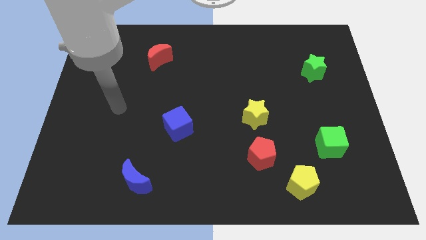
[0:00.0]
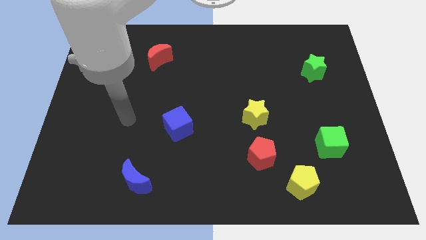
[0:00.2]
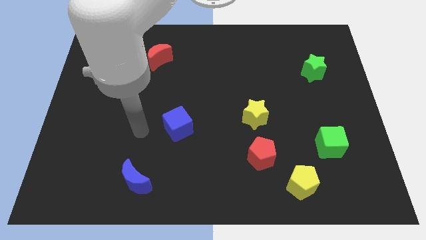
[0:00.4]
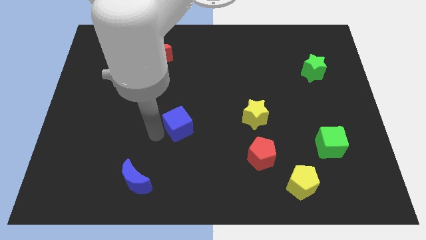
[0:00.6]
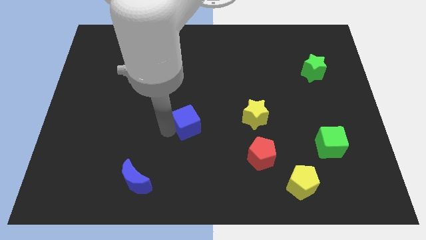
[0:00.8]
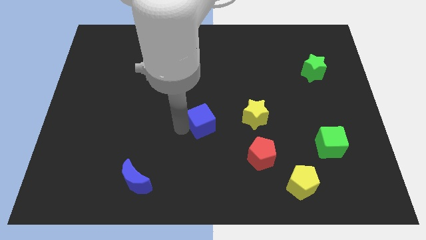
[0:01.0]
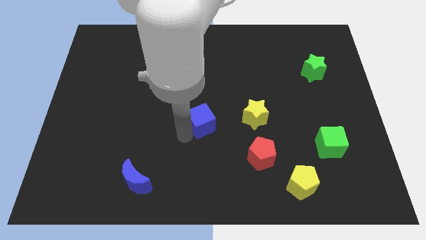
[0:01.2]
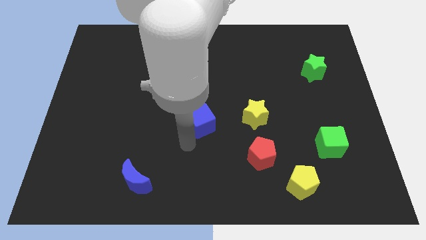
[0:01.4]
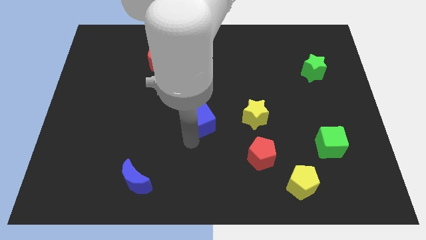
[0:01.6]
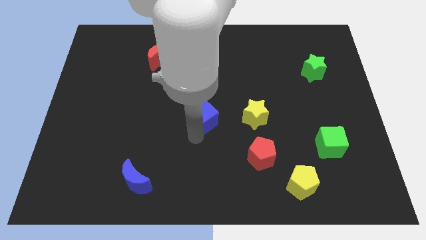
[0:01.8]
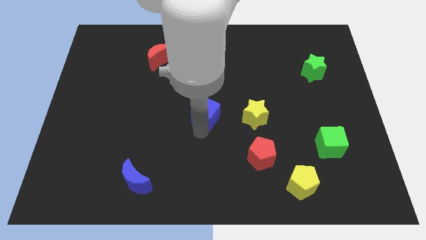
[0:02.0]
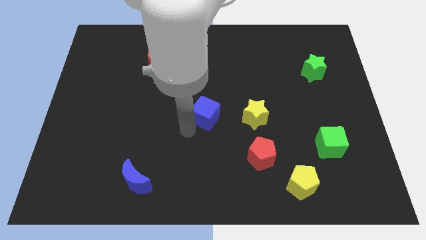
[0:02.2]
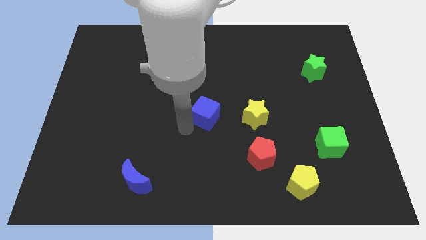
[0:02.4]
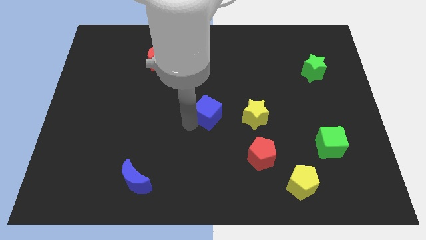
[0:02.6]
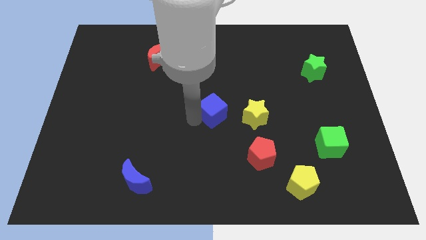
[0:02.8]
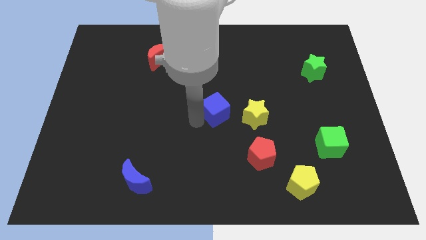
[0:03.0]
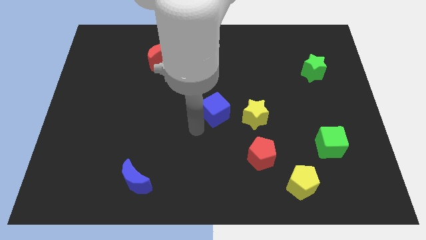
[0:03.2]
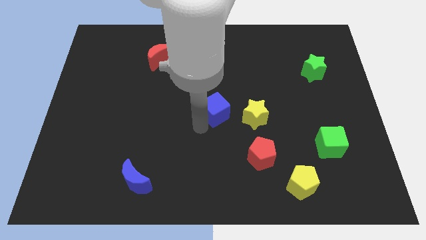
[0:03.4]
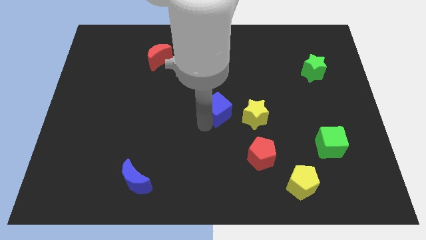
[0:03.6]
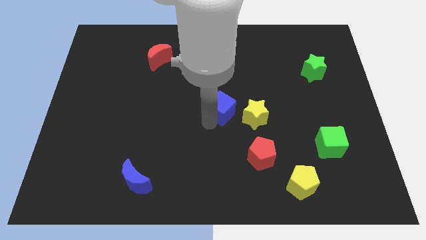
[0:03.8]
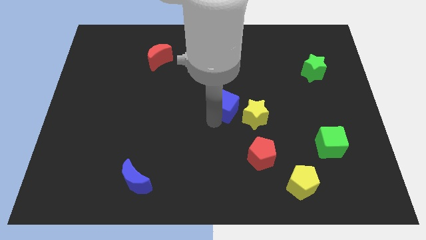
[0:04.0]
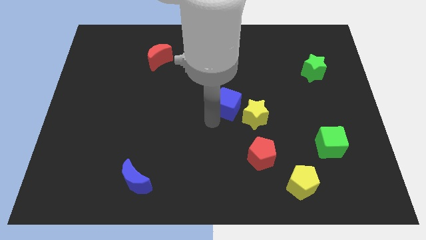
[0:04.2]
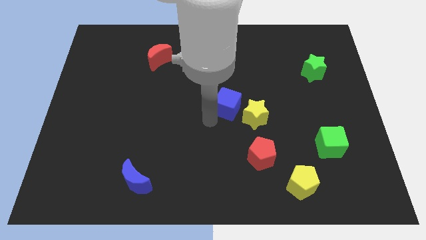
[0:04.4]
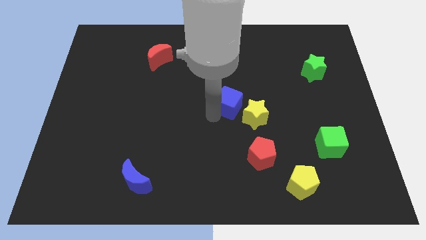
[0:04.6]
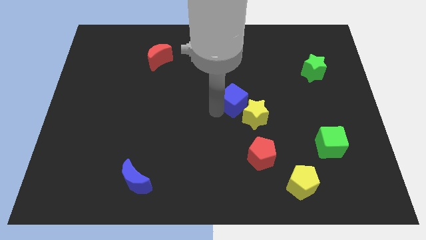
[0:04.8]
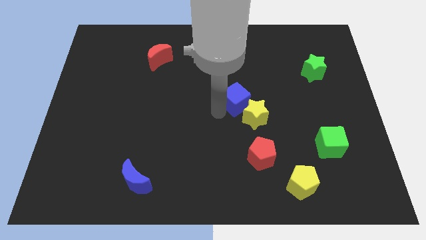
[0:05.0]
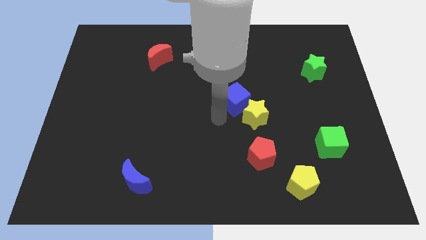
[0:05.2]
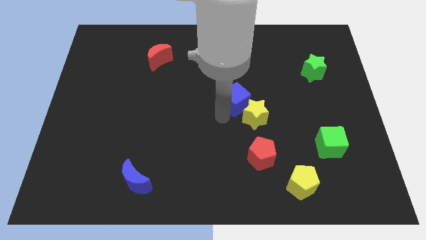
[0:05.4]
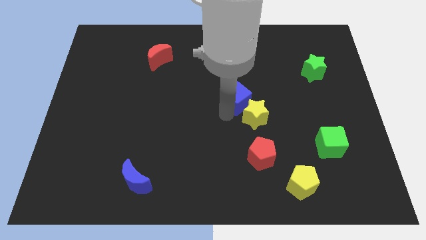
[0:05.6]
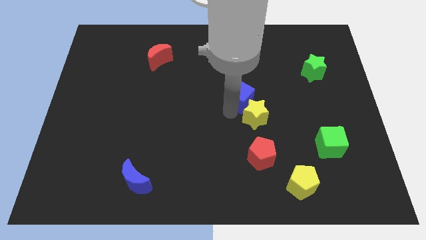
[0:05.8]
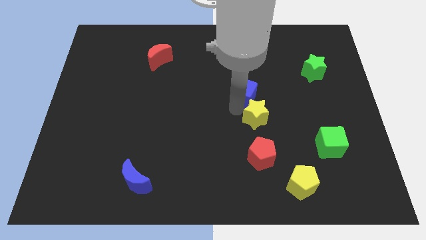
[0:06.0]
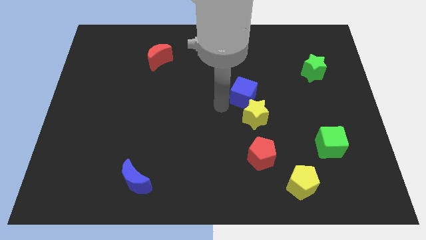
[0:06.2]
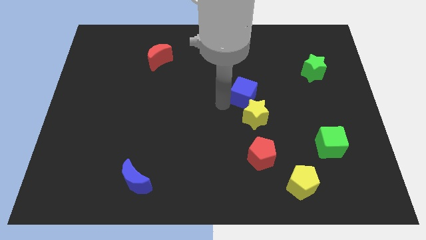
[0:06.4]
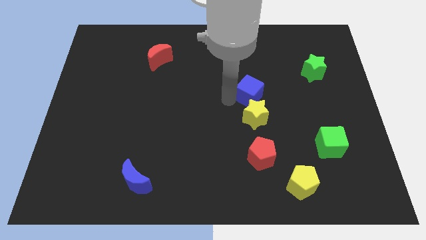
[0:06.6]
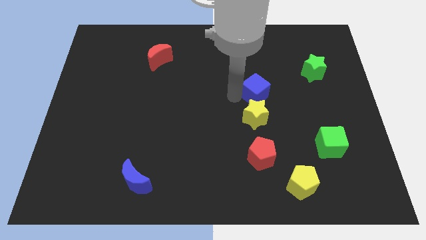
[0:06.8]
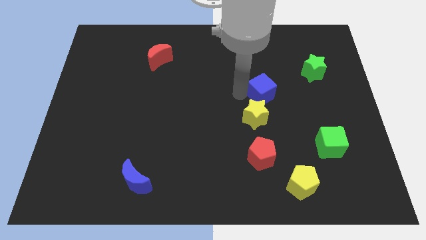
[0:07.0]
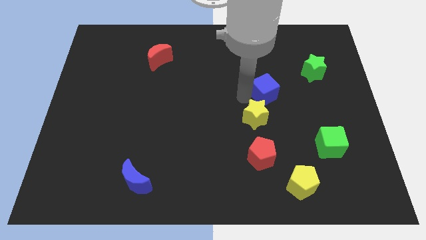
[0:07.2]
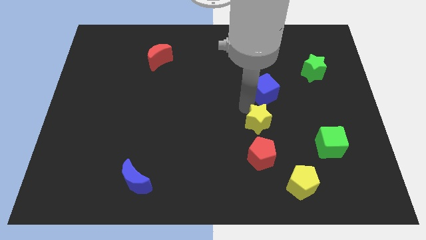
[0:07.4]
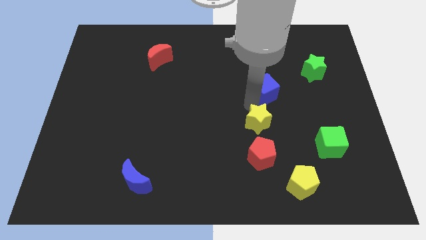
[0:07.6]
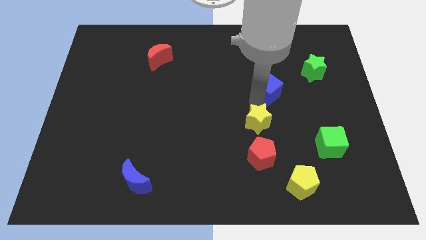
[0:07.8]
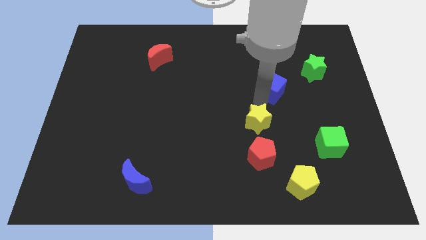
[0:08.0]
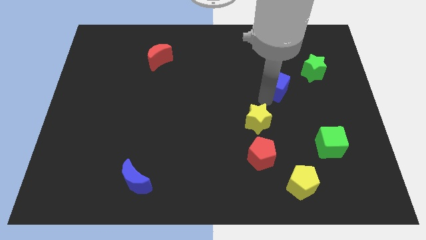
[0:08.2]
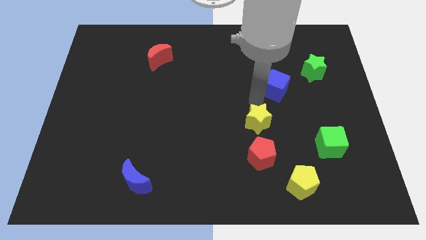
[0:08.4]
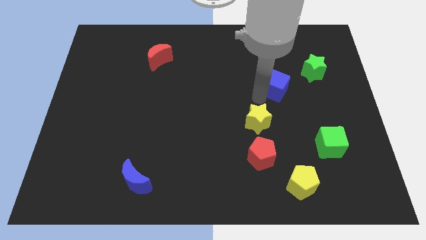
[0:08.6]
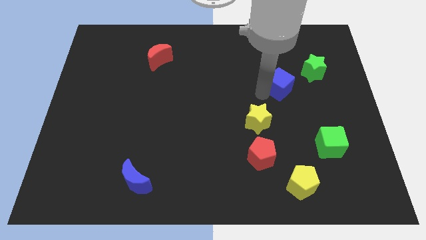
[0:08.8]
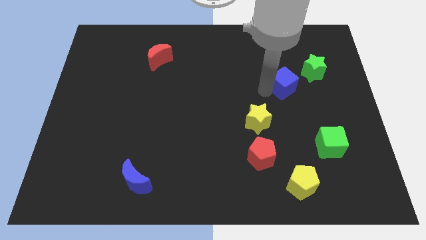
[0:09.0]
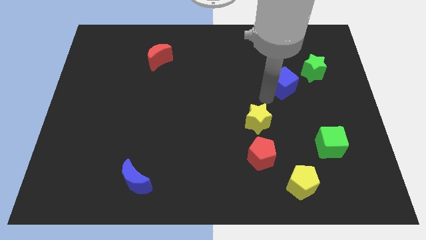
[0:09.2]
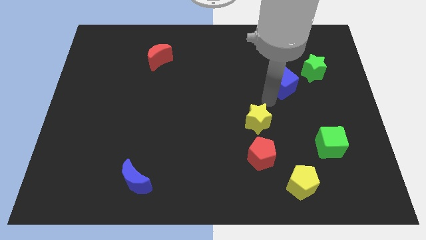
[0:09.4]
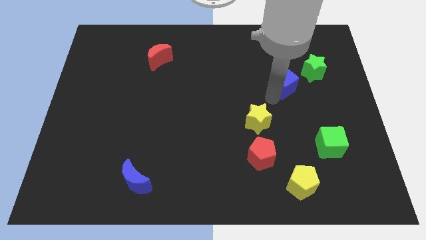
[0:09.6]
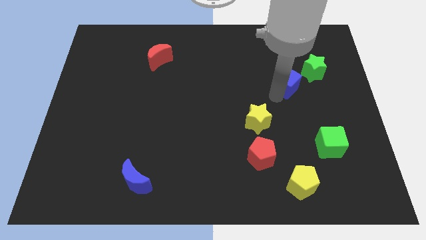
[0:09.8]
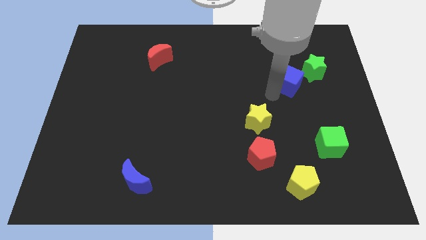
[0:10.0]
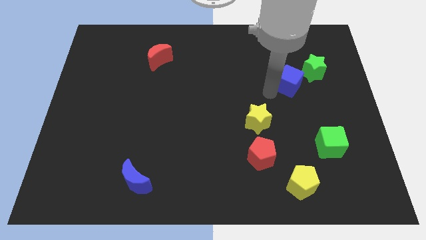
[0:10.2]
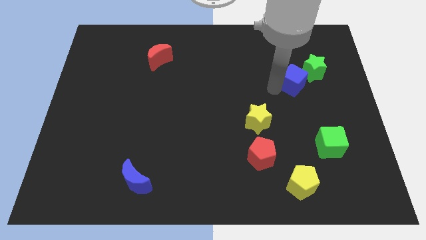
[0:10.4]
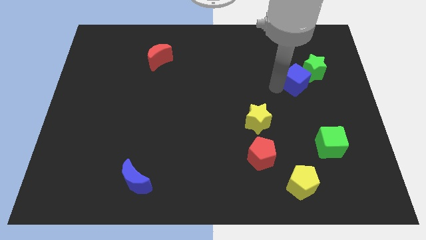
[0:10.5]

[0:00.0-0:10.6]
put the blue cube next to the green star

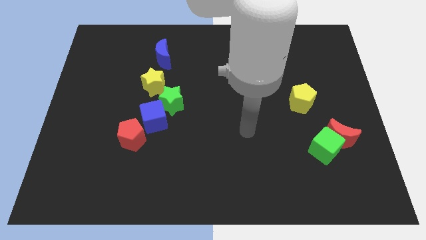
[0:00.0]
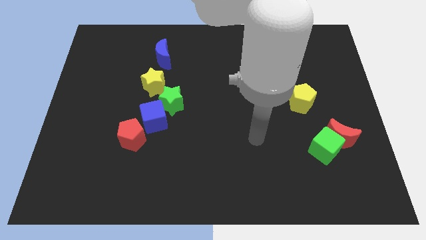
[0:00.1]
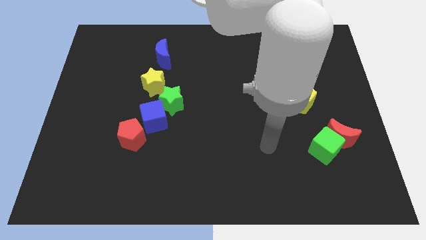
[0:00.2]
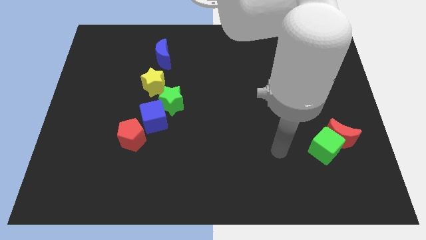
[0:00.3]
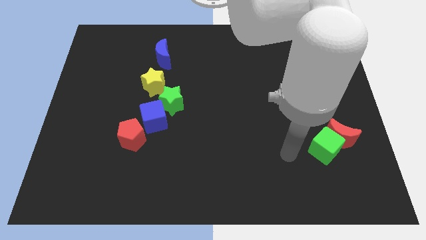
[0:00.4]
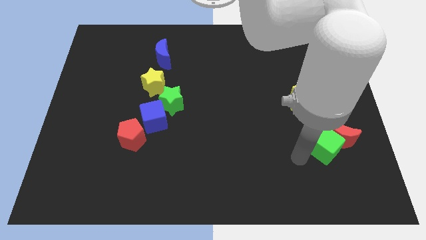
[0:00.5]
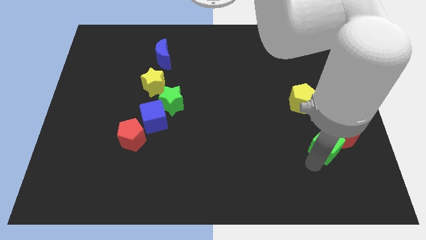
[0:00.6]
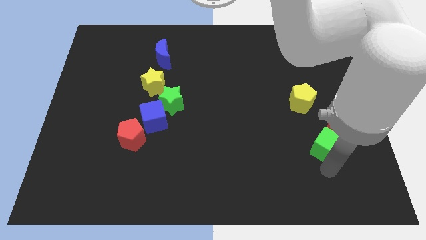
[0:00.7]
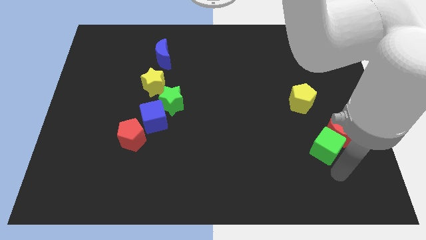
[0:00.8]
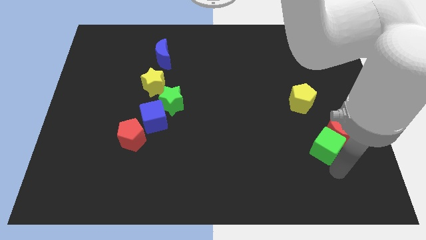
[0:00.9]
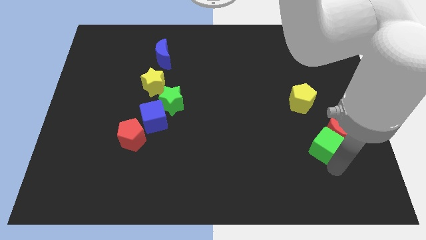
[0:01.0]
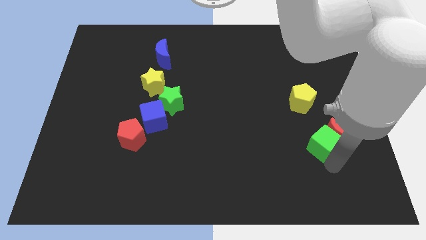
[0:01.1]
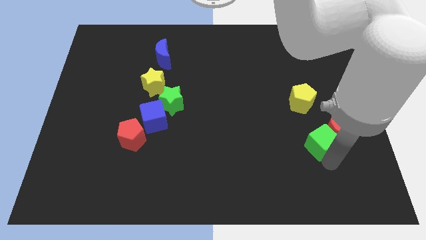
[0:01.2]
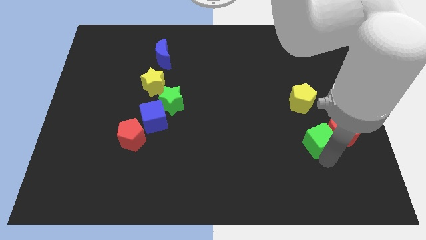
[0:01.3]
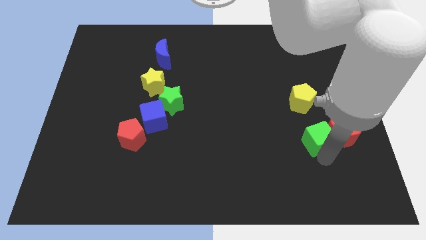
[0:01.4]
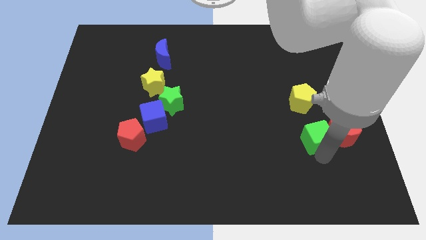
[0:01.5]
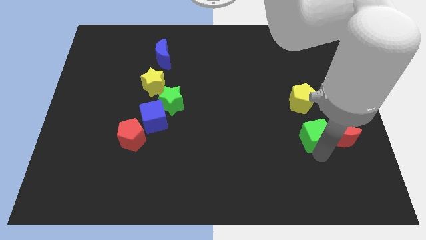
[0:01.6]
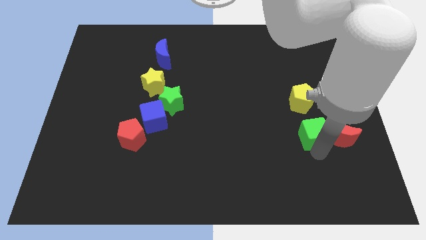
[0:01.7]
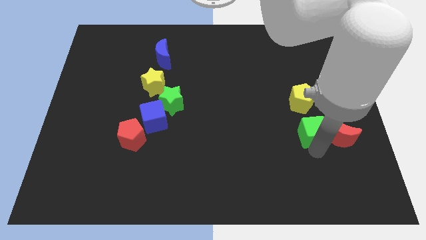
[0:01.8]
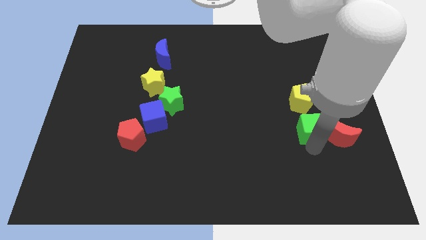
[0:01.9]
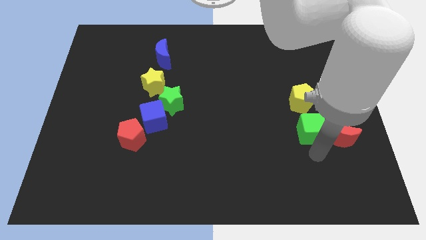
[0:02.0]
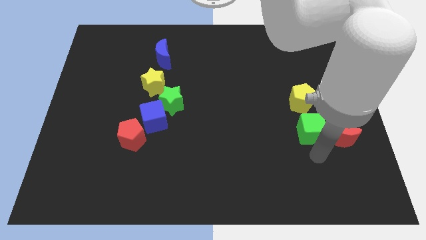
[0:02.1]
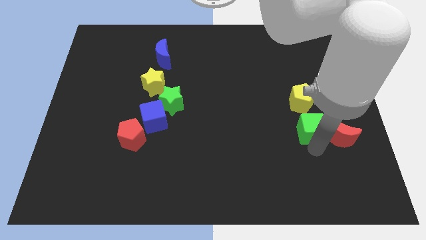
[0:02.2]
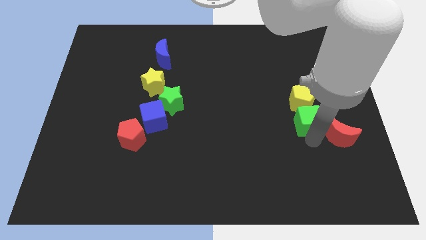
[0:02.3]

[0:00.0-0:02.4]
move the green cube towards the yellow pentagon

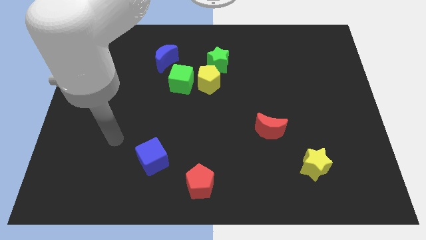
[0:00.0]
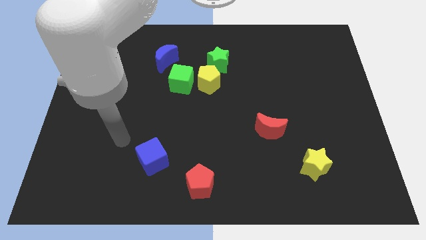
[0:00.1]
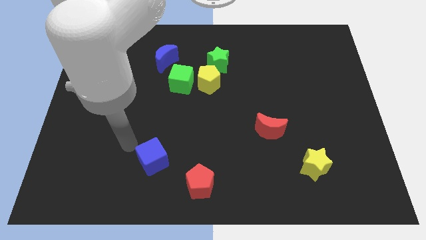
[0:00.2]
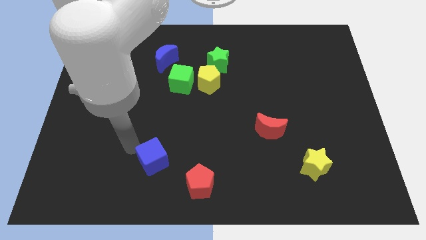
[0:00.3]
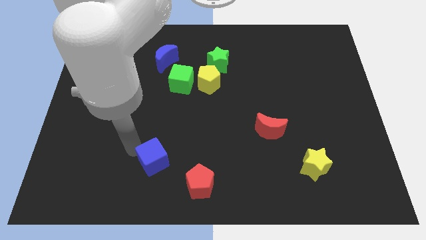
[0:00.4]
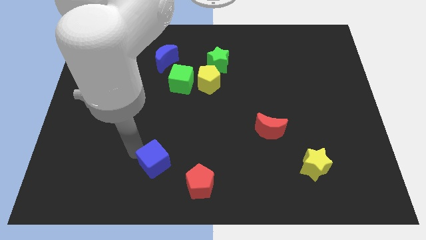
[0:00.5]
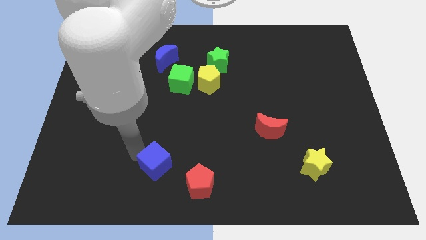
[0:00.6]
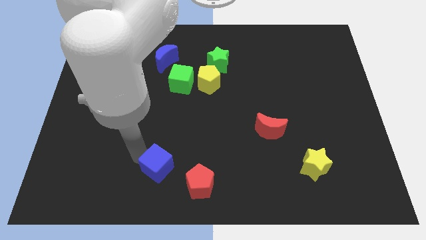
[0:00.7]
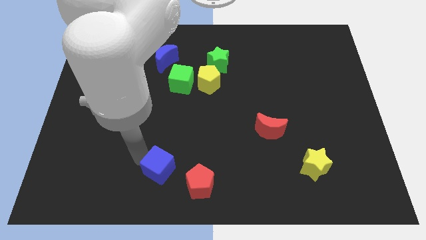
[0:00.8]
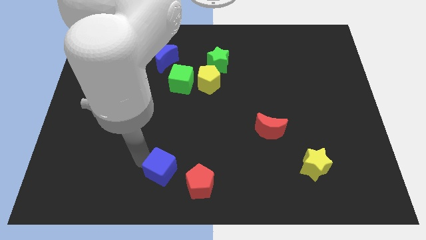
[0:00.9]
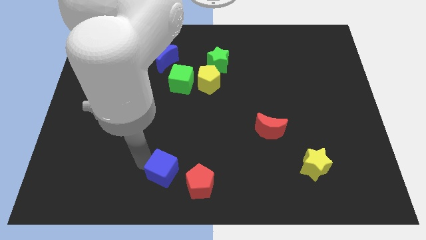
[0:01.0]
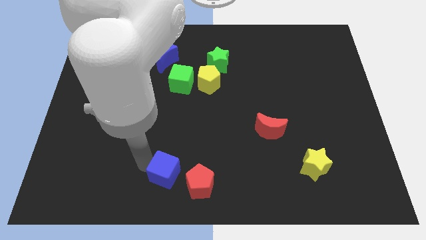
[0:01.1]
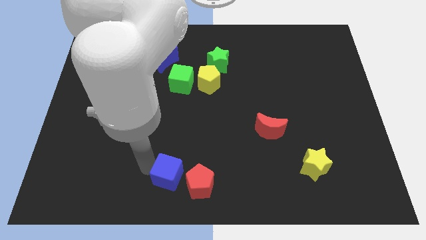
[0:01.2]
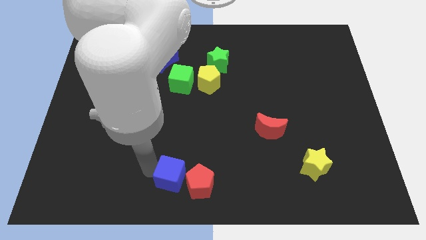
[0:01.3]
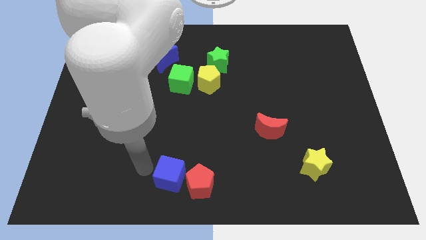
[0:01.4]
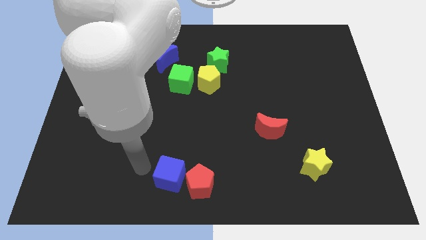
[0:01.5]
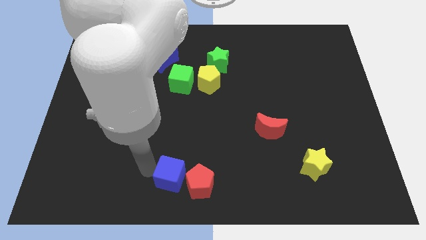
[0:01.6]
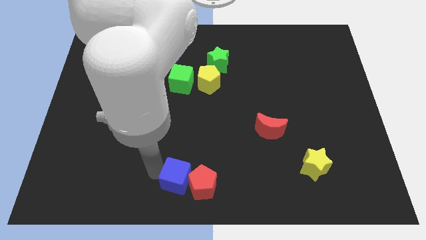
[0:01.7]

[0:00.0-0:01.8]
move the blue cube to the red pentagon
